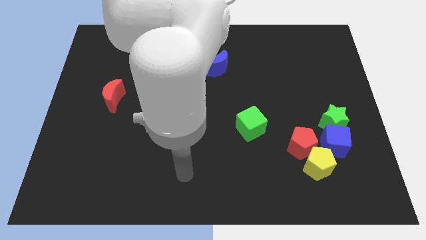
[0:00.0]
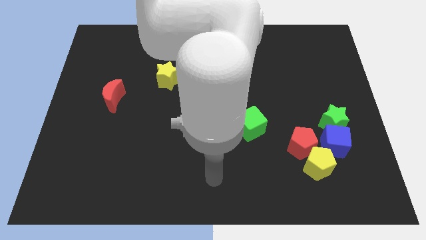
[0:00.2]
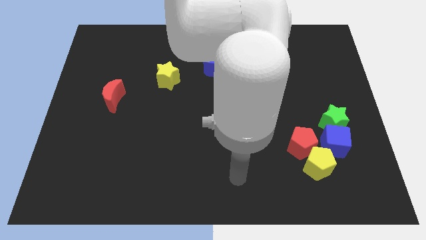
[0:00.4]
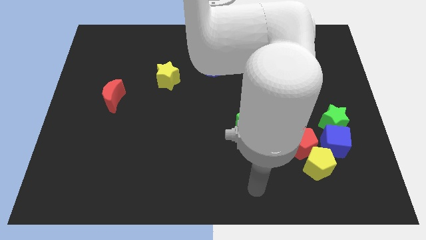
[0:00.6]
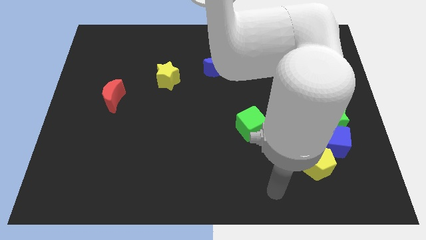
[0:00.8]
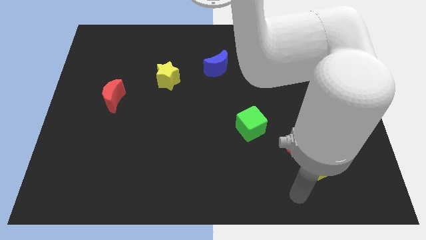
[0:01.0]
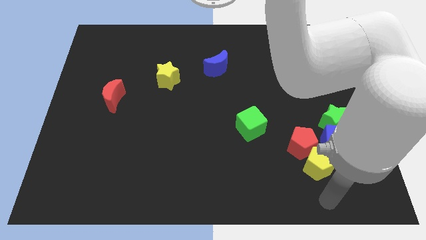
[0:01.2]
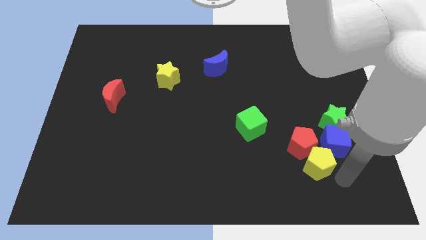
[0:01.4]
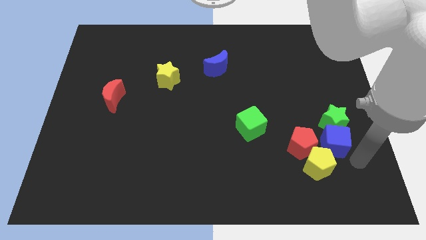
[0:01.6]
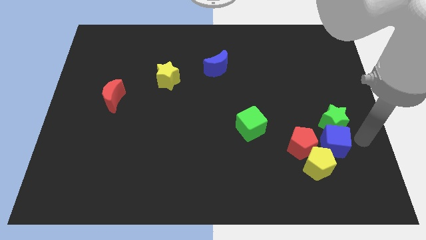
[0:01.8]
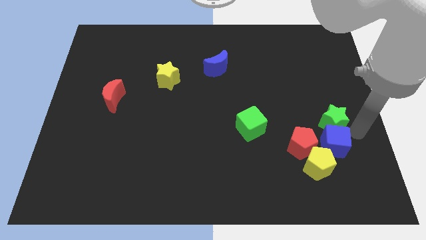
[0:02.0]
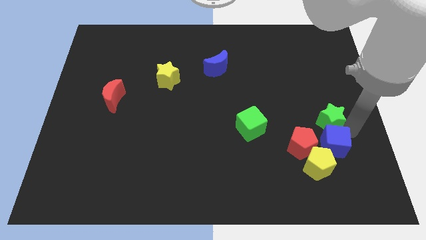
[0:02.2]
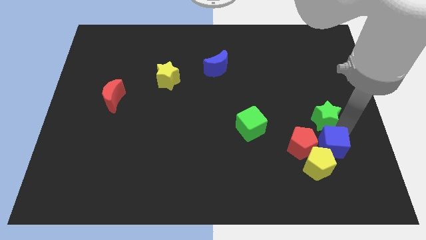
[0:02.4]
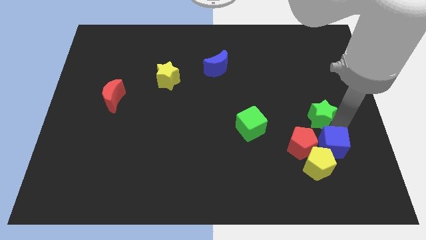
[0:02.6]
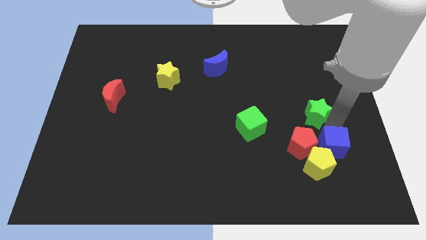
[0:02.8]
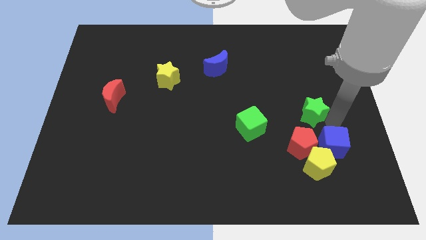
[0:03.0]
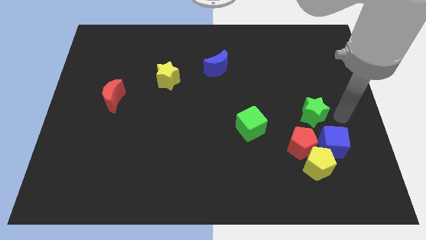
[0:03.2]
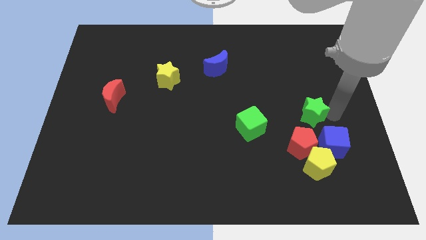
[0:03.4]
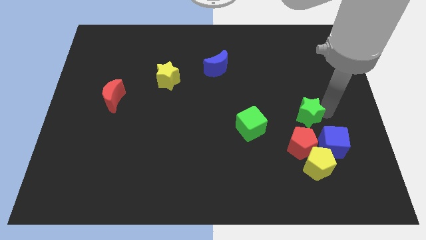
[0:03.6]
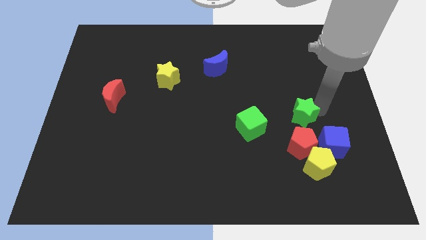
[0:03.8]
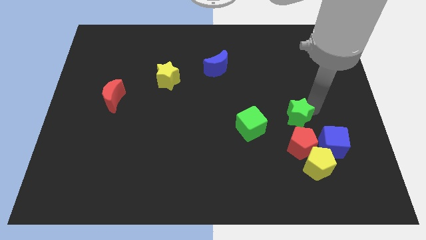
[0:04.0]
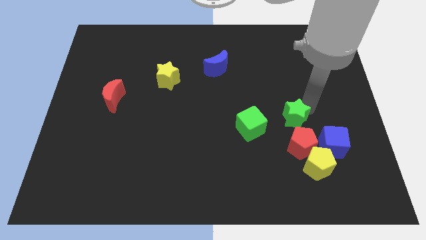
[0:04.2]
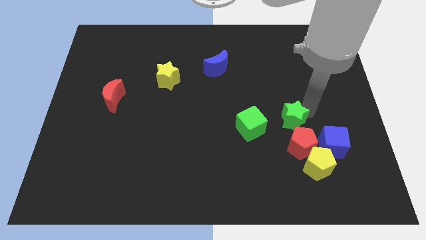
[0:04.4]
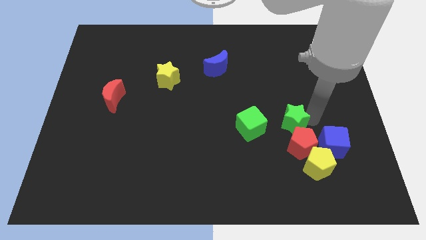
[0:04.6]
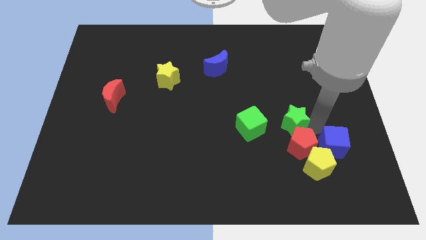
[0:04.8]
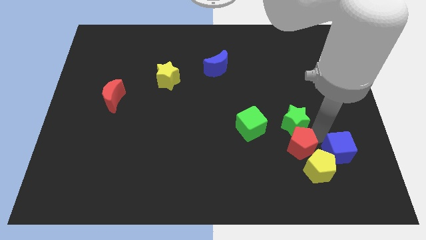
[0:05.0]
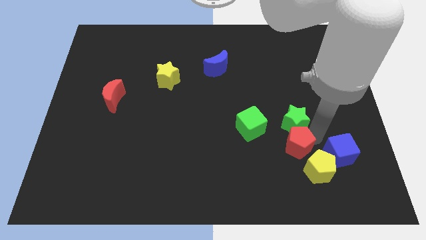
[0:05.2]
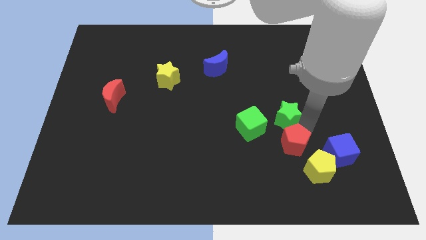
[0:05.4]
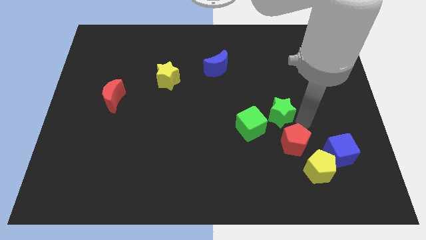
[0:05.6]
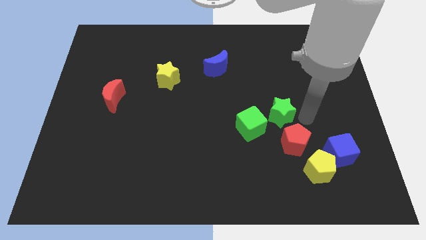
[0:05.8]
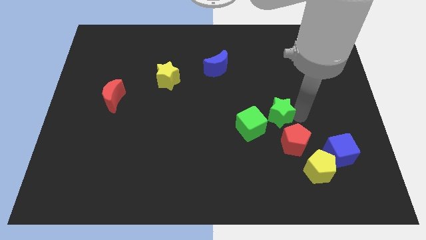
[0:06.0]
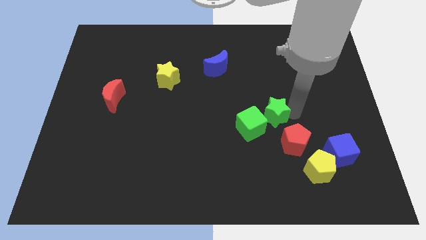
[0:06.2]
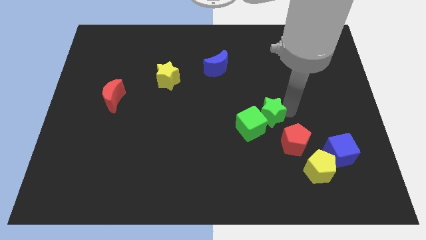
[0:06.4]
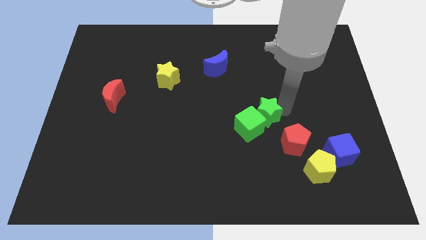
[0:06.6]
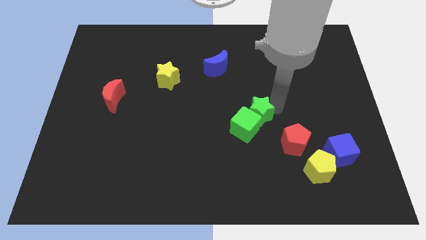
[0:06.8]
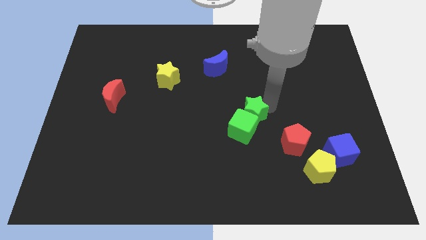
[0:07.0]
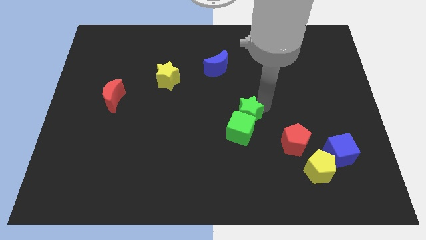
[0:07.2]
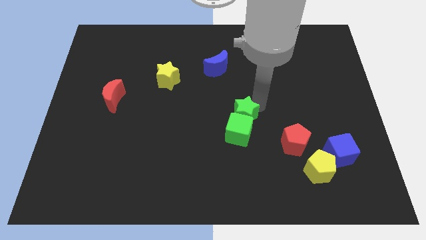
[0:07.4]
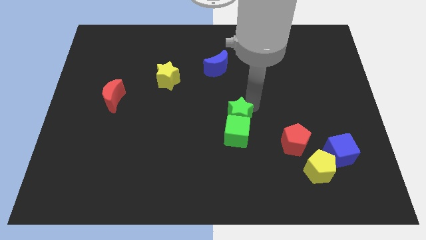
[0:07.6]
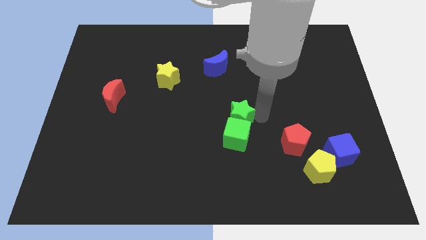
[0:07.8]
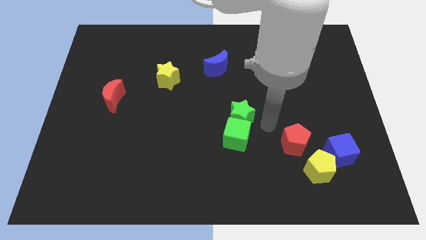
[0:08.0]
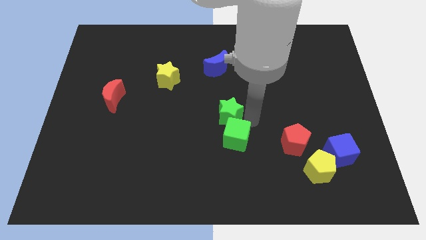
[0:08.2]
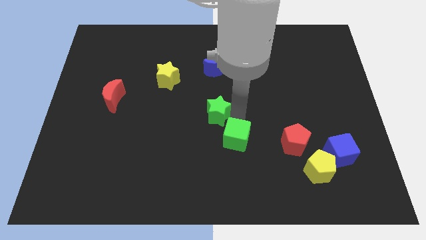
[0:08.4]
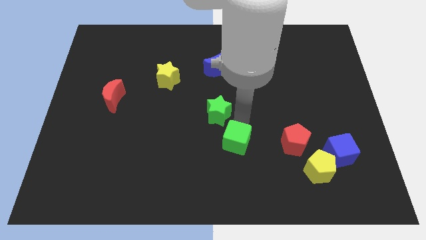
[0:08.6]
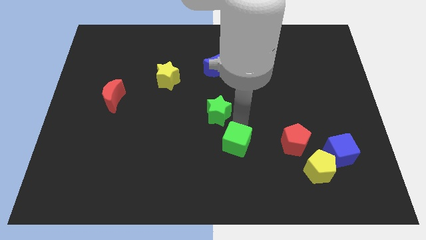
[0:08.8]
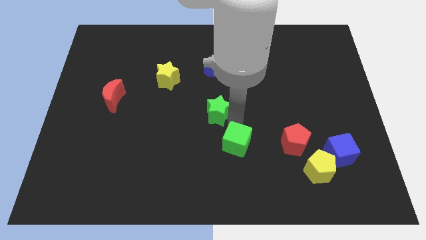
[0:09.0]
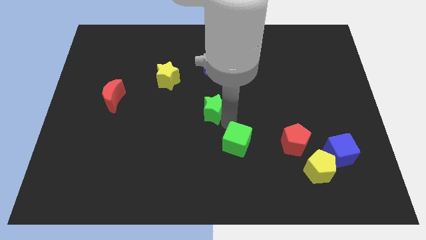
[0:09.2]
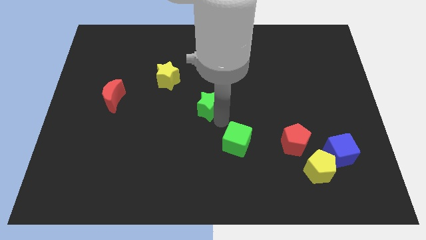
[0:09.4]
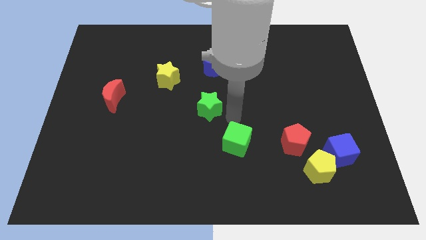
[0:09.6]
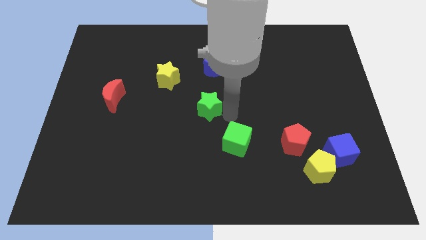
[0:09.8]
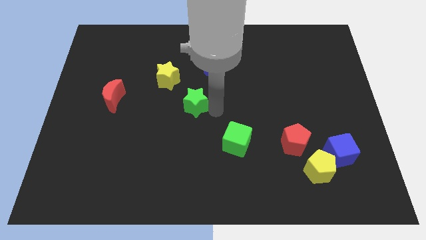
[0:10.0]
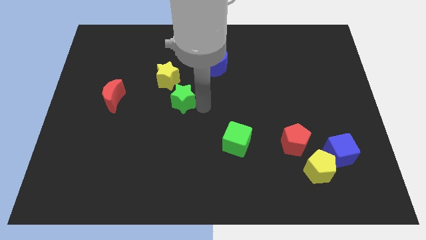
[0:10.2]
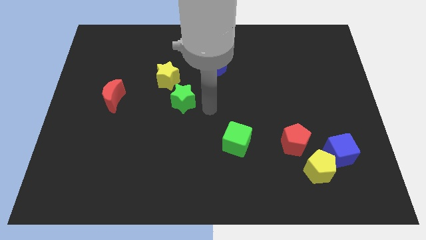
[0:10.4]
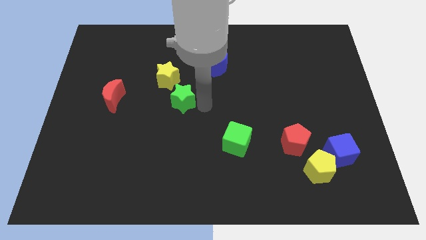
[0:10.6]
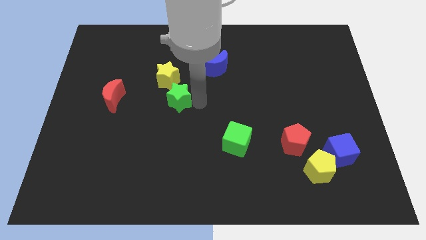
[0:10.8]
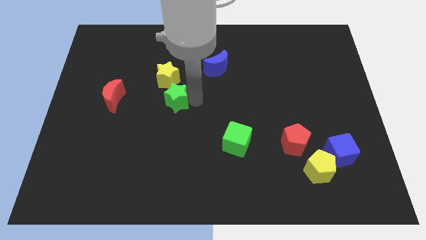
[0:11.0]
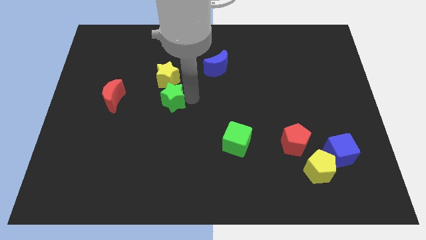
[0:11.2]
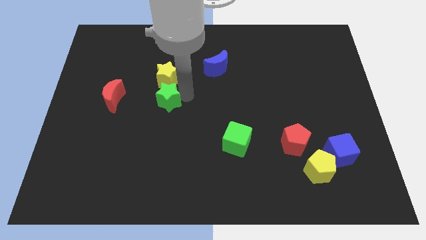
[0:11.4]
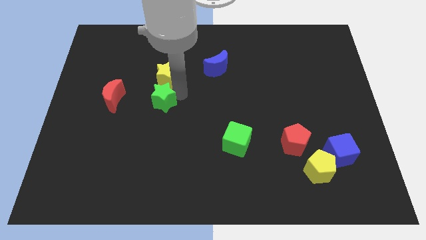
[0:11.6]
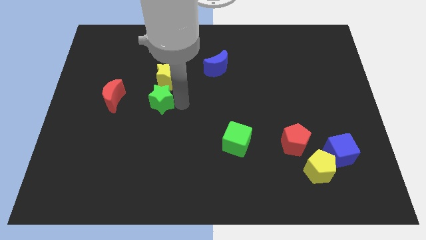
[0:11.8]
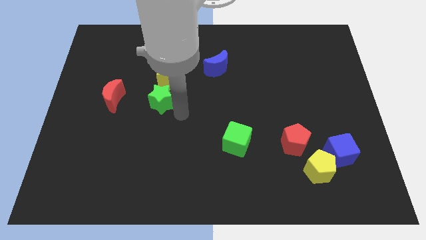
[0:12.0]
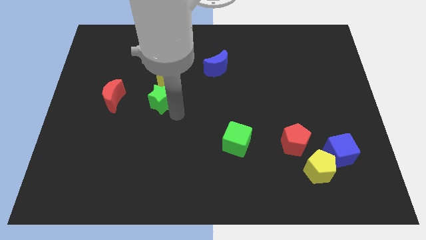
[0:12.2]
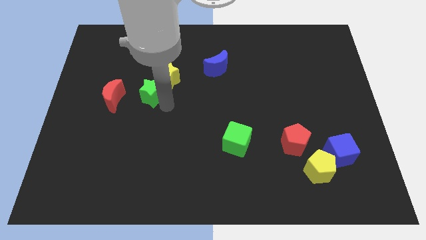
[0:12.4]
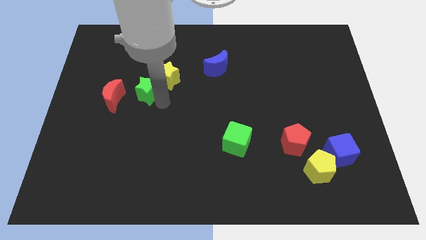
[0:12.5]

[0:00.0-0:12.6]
move the green star to the left of the yellow star

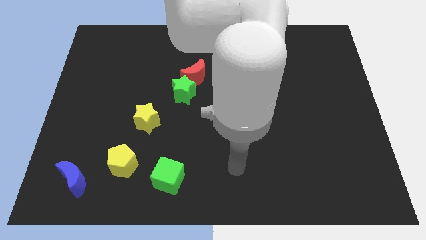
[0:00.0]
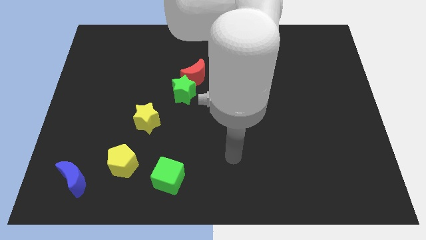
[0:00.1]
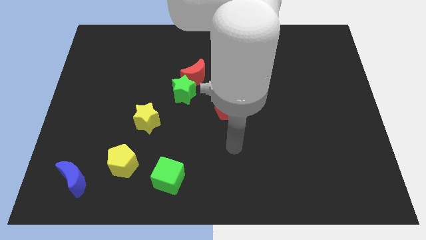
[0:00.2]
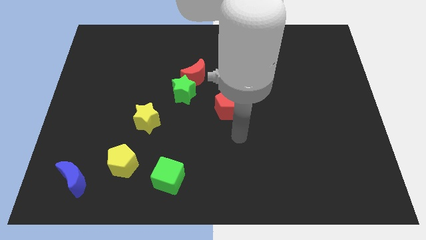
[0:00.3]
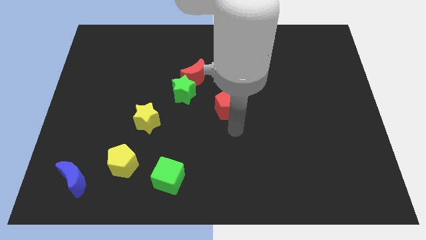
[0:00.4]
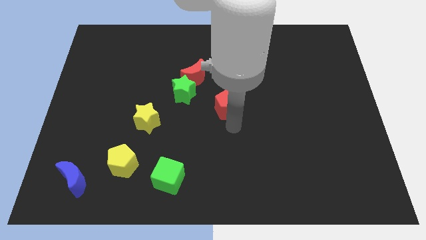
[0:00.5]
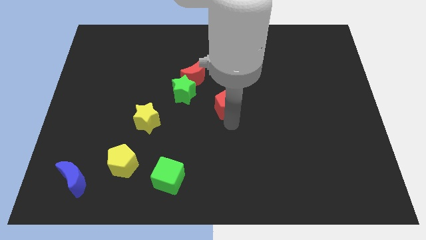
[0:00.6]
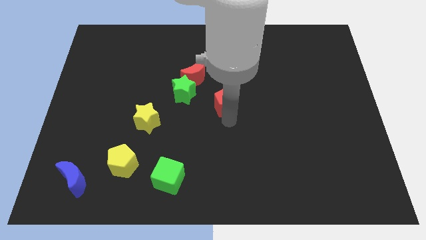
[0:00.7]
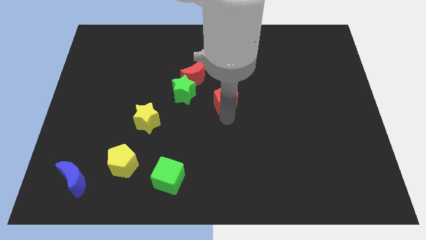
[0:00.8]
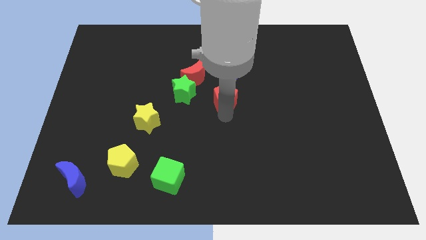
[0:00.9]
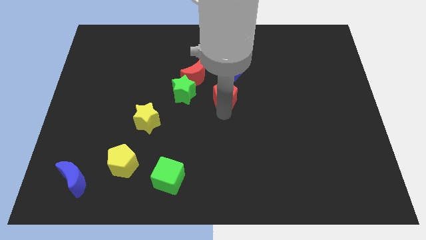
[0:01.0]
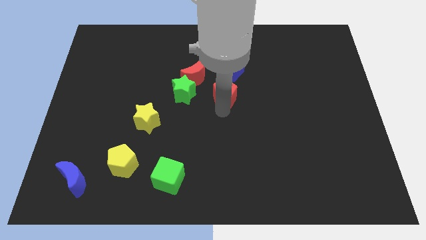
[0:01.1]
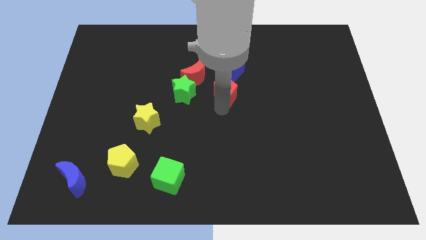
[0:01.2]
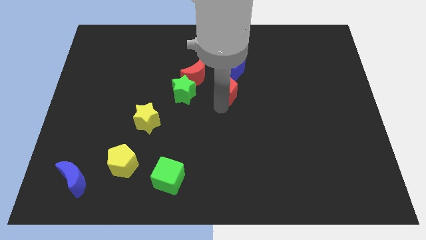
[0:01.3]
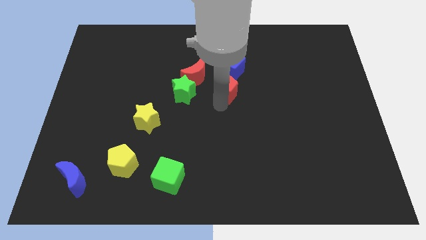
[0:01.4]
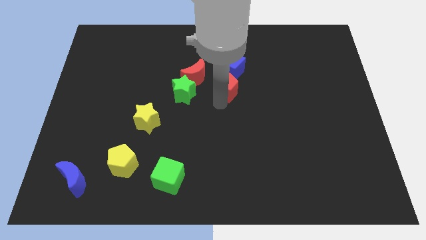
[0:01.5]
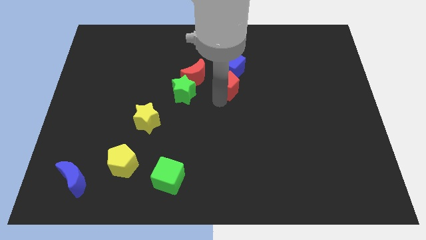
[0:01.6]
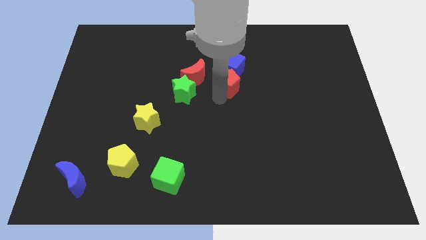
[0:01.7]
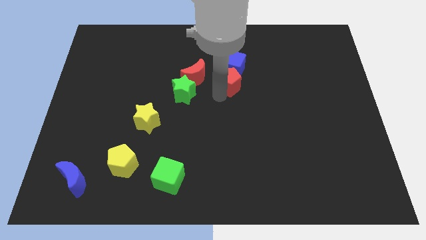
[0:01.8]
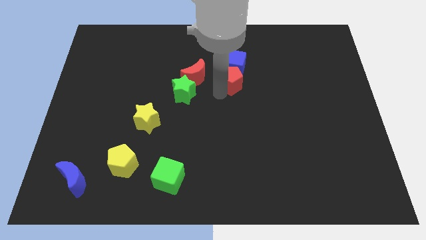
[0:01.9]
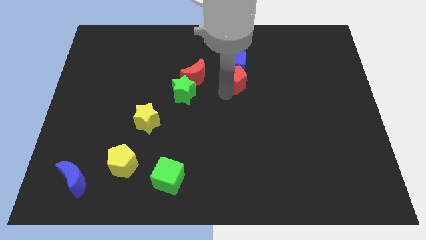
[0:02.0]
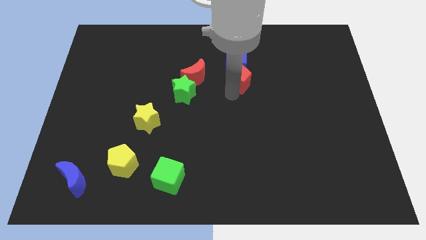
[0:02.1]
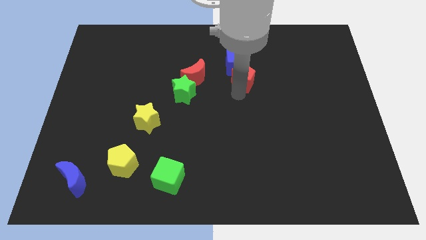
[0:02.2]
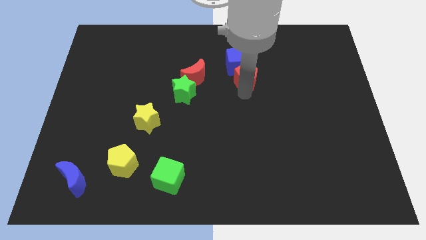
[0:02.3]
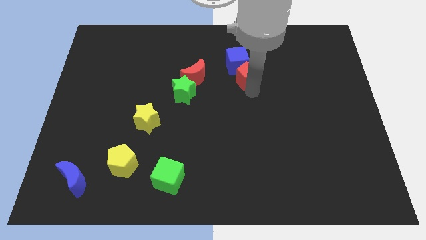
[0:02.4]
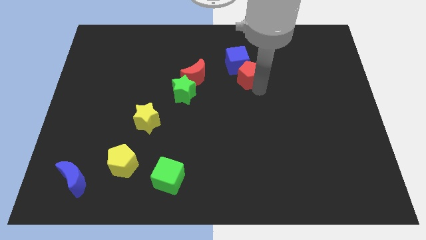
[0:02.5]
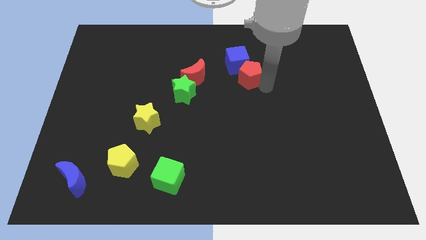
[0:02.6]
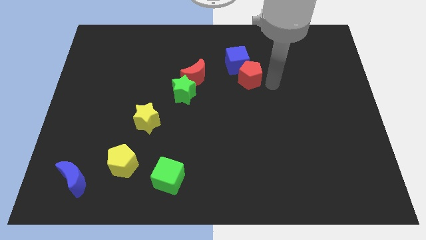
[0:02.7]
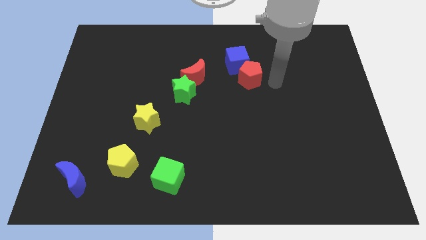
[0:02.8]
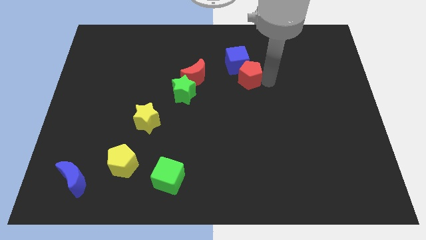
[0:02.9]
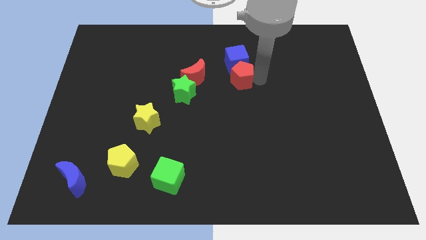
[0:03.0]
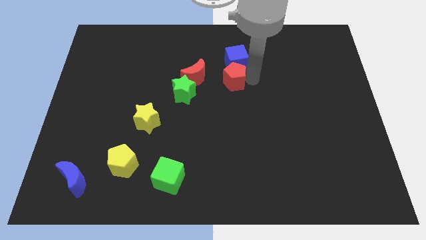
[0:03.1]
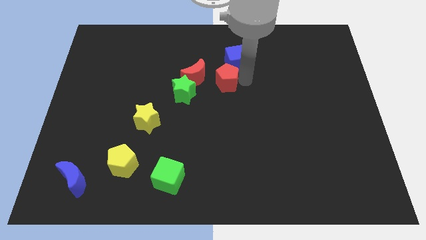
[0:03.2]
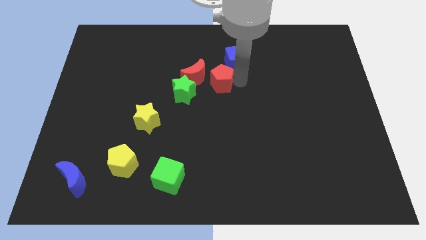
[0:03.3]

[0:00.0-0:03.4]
put the red pentagon to the top right side of the green star
